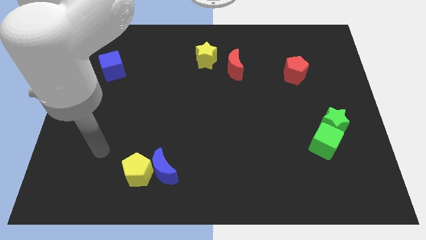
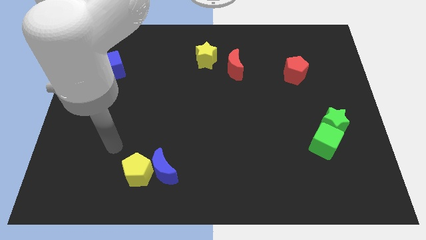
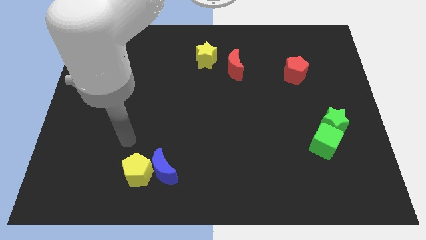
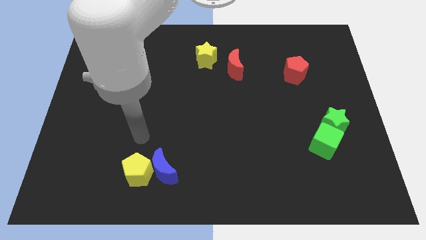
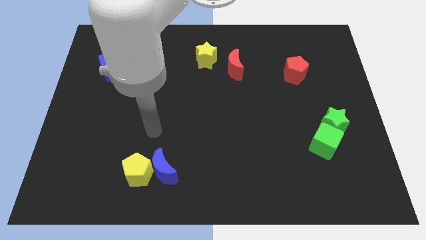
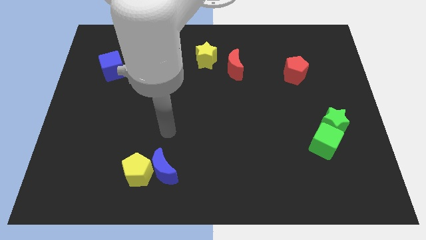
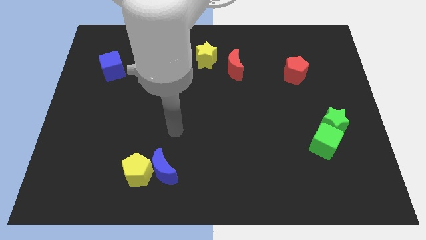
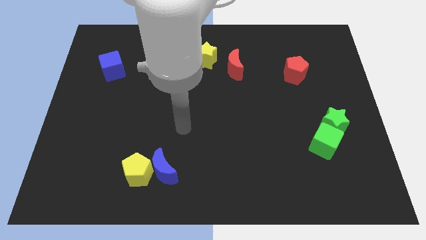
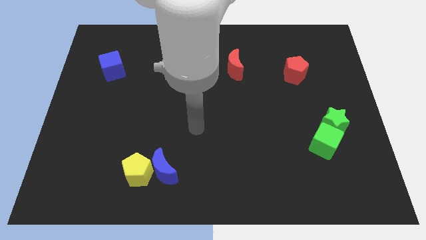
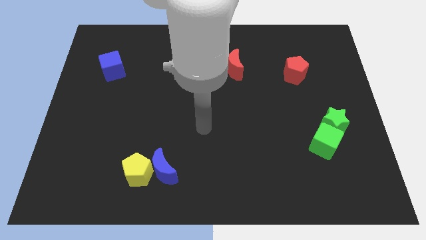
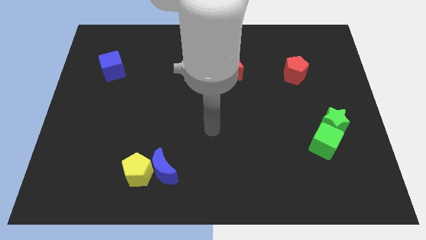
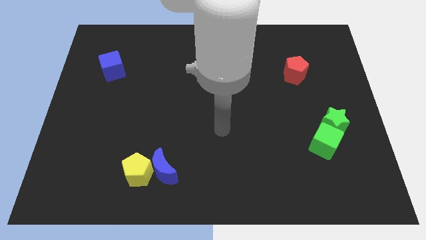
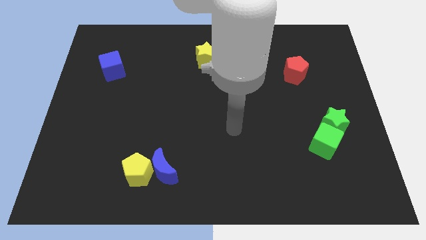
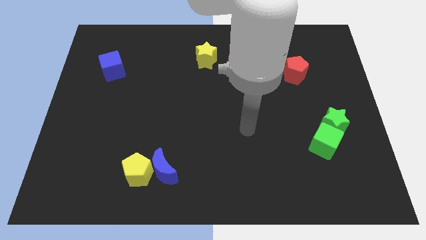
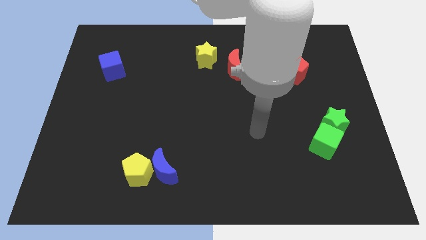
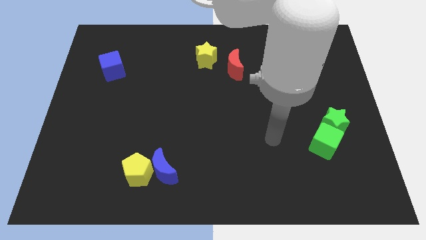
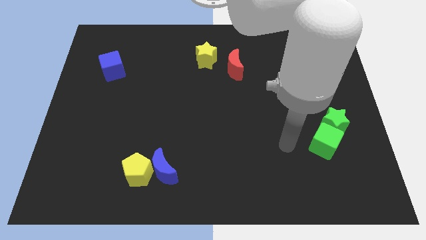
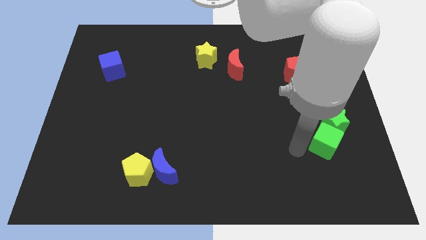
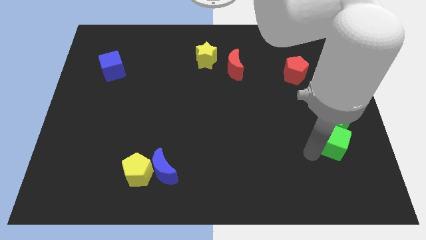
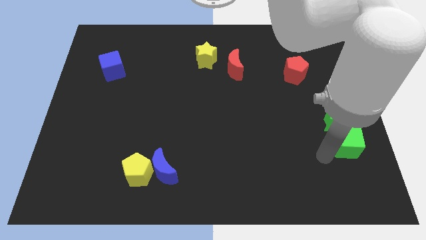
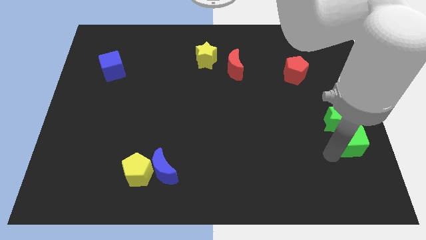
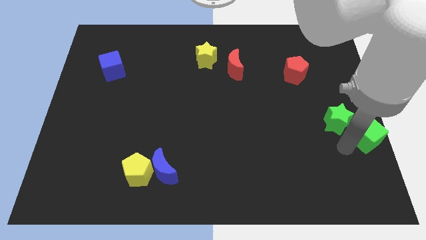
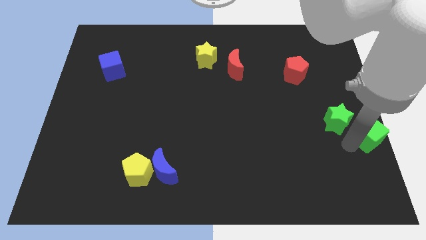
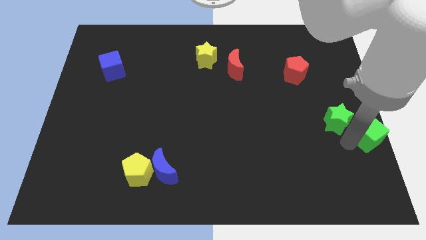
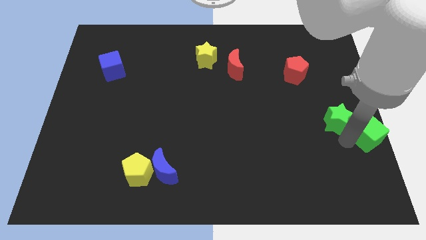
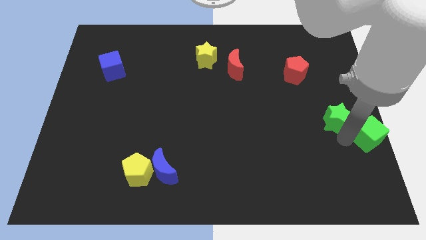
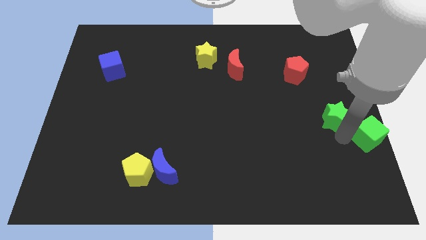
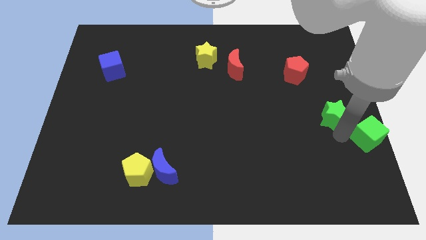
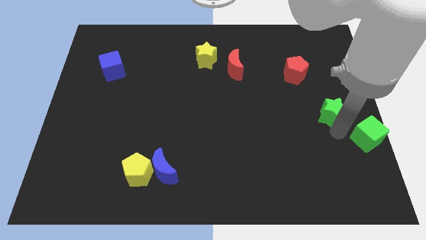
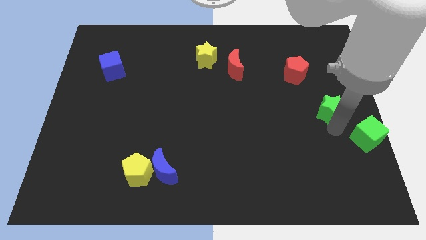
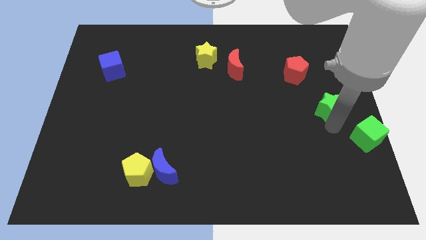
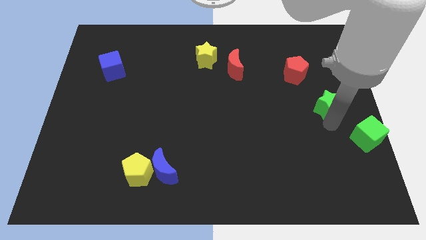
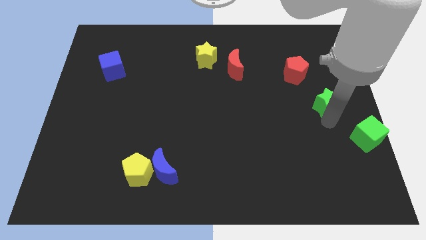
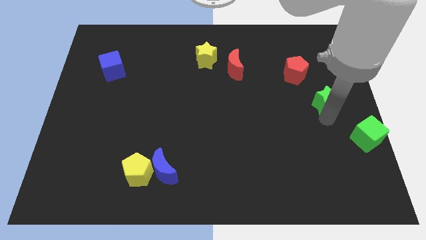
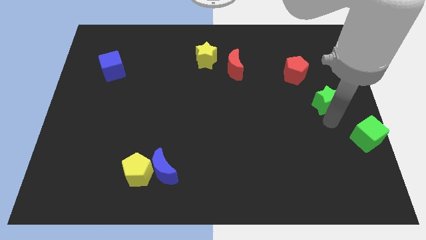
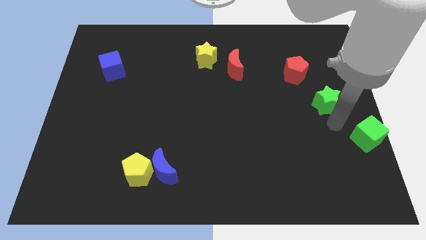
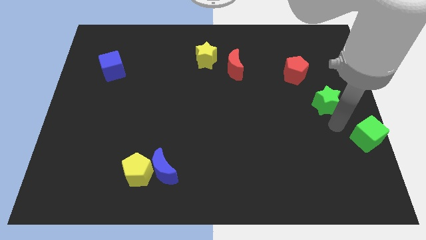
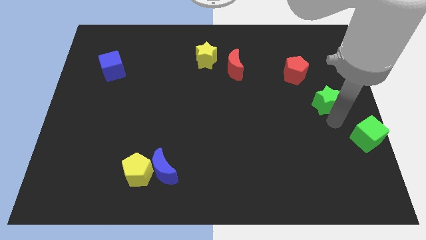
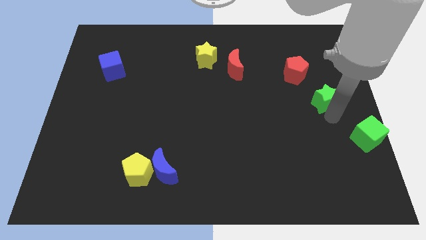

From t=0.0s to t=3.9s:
slide the green star up a bit

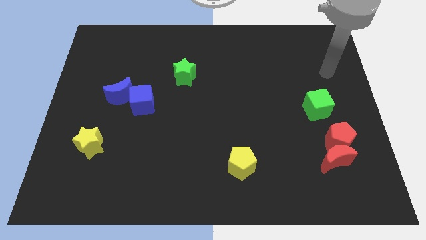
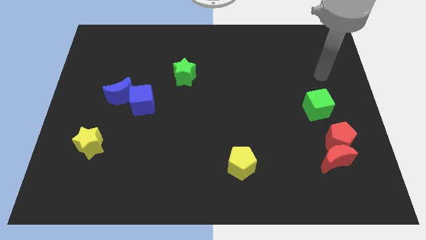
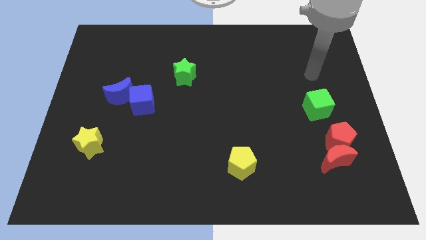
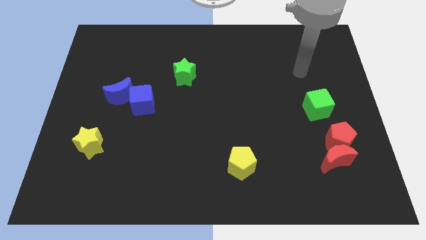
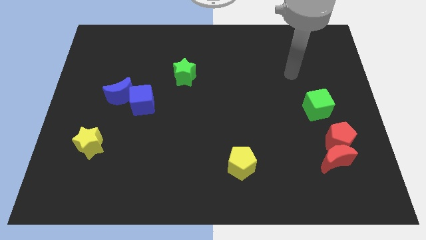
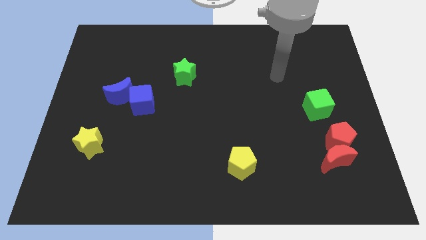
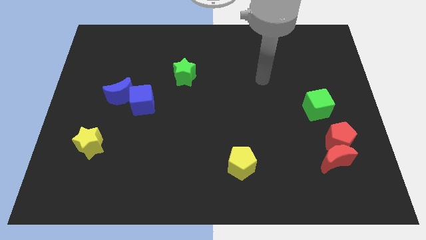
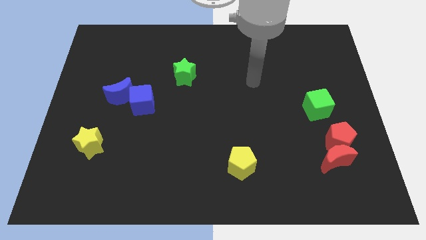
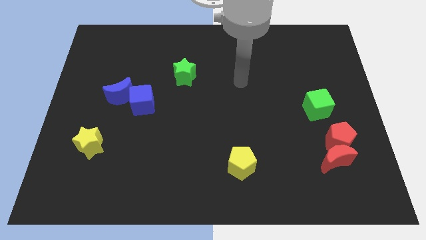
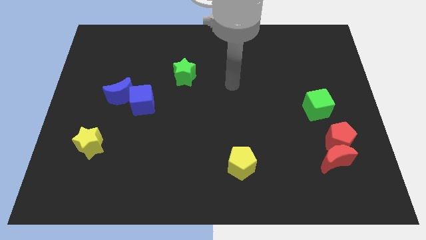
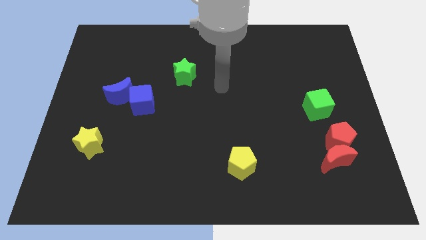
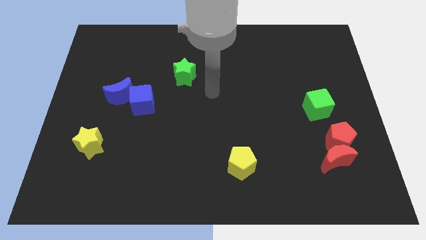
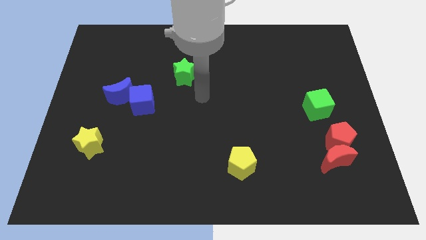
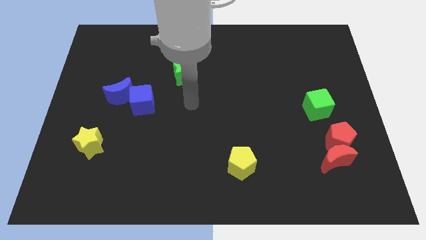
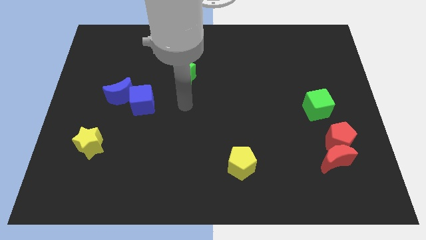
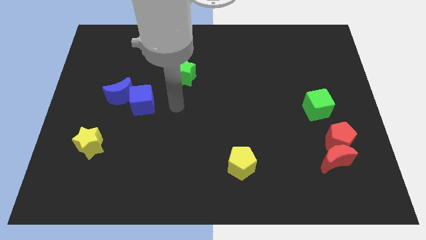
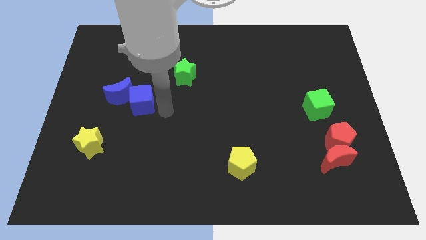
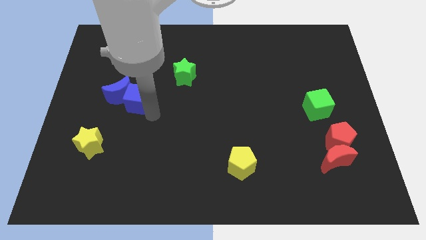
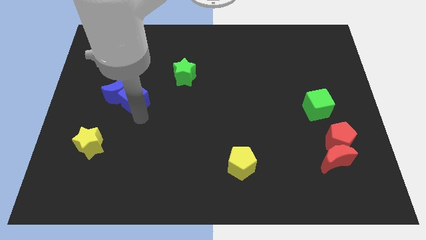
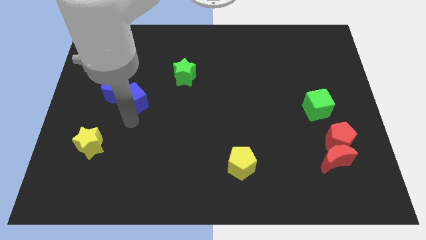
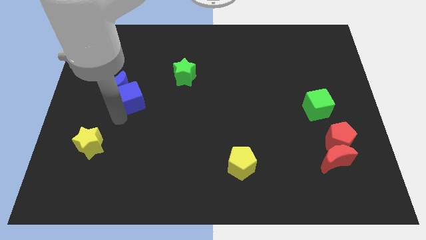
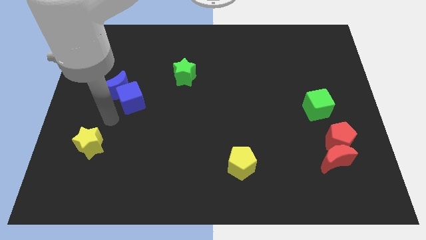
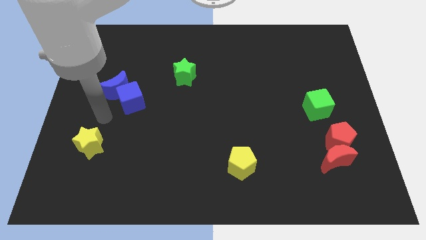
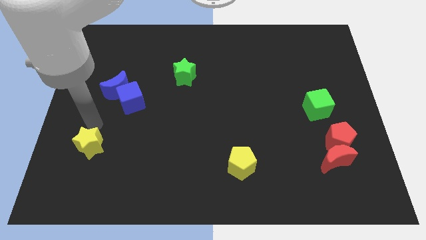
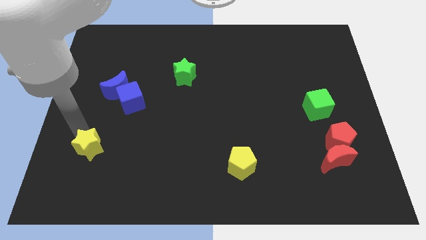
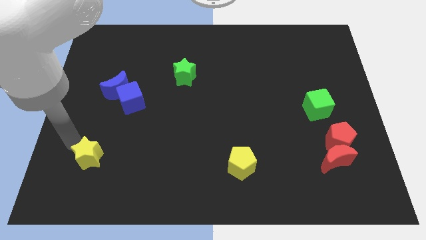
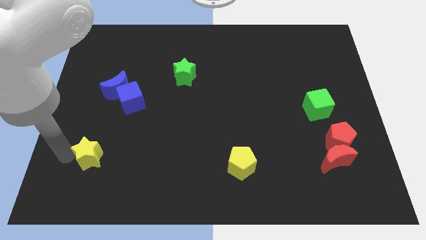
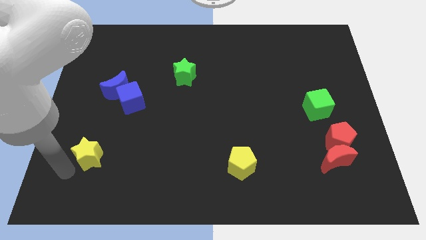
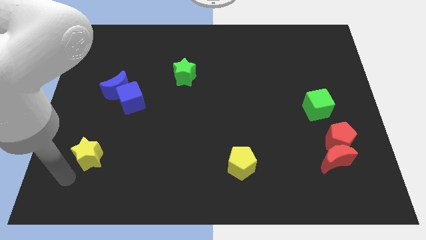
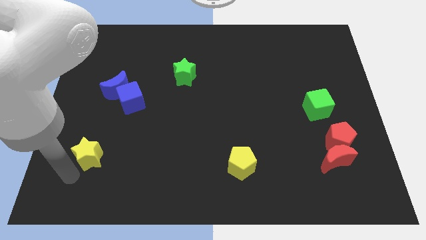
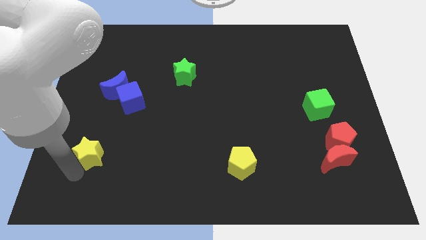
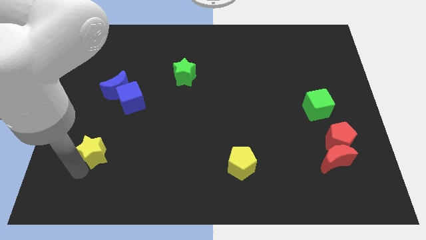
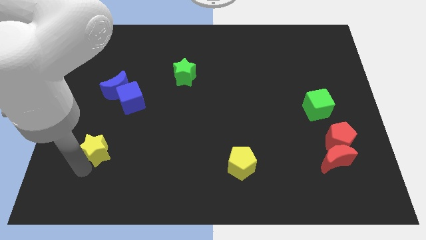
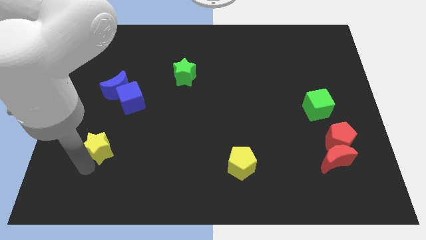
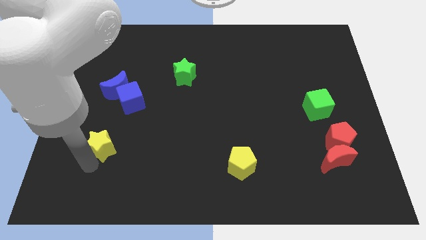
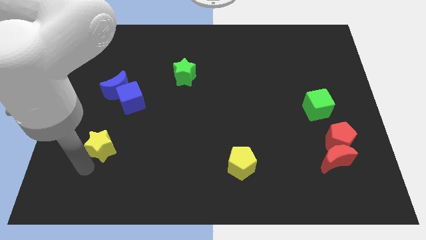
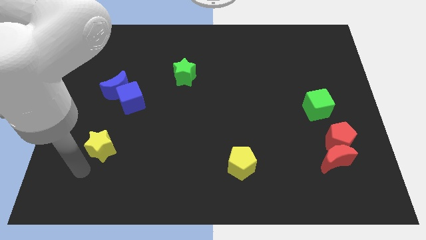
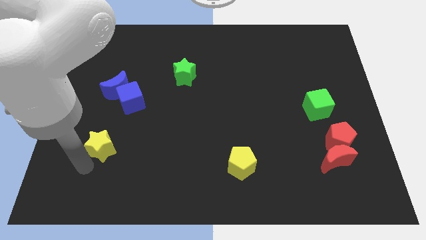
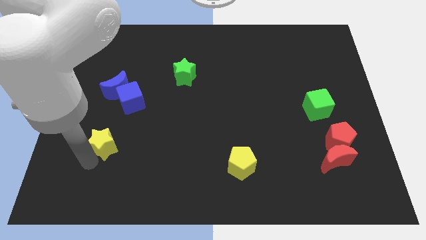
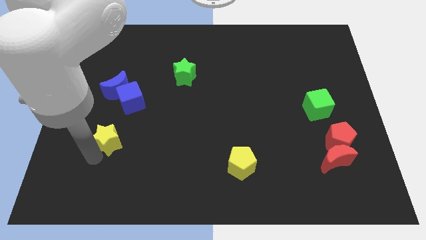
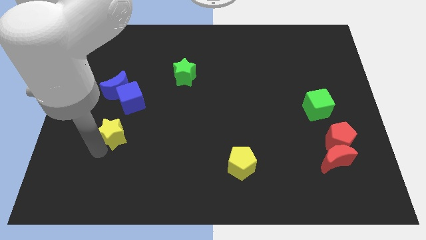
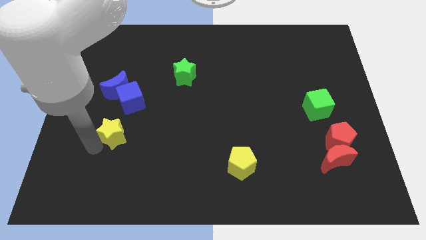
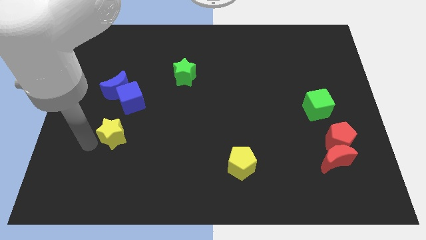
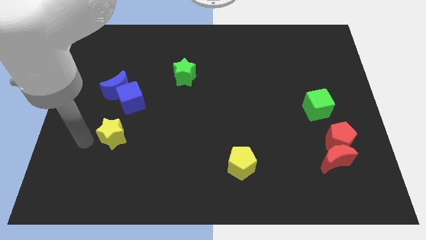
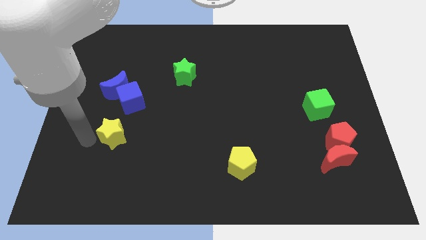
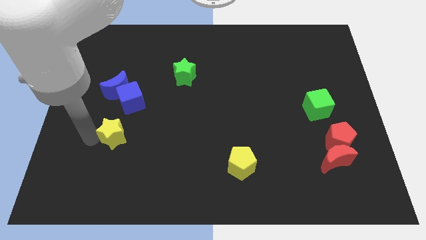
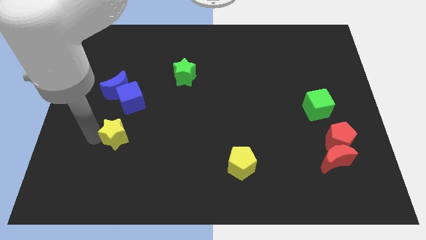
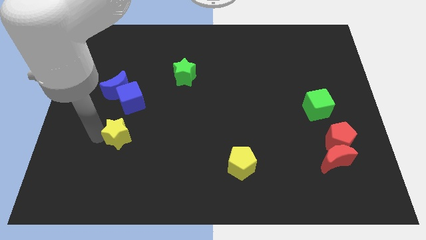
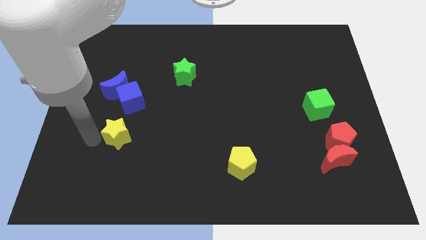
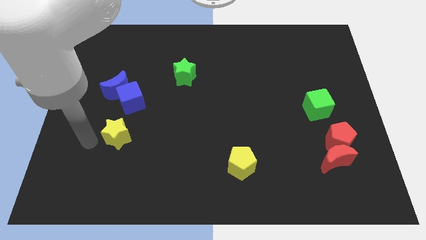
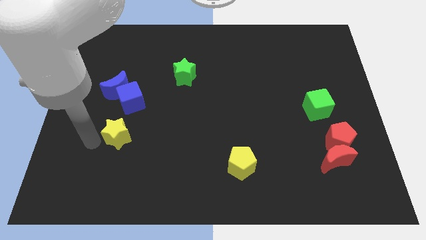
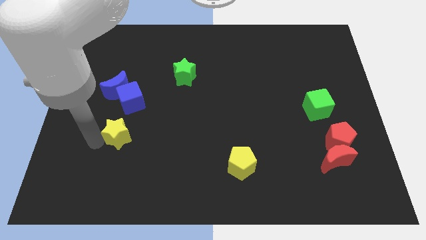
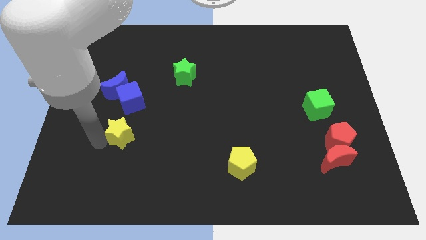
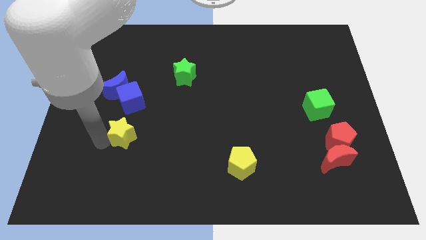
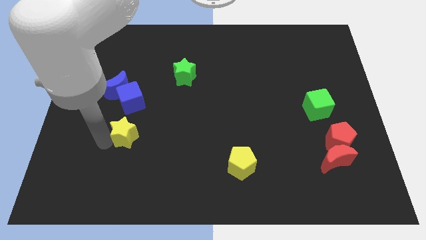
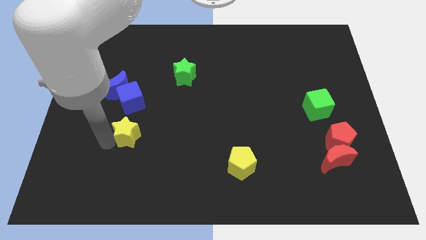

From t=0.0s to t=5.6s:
slide the yellow star upwards and to the right diagonally a little
